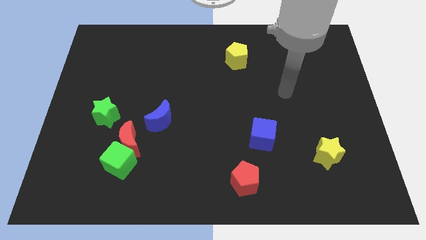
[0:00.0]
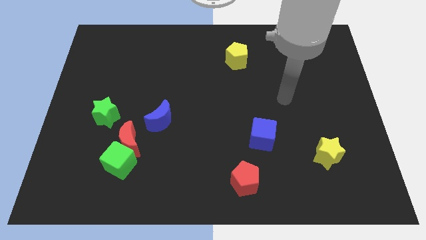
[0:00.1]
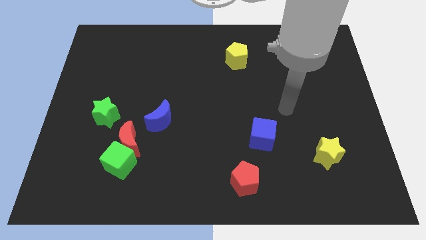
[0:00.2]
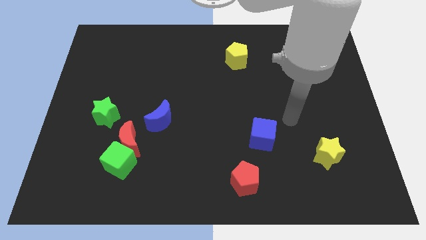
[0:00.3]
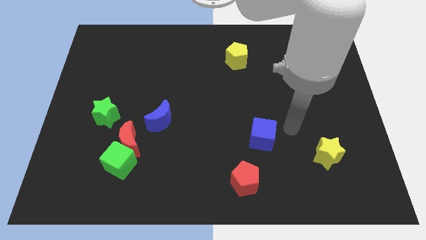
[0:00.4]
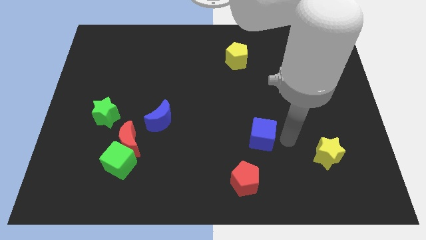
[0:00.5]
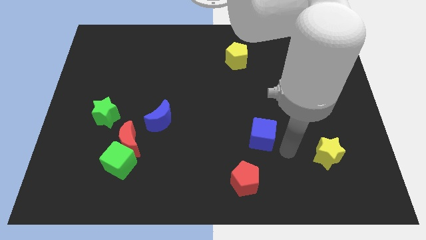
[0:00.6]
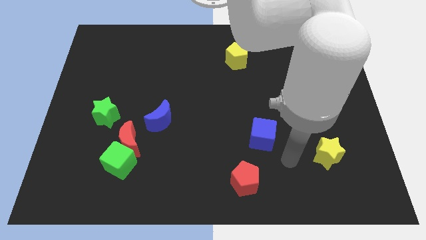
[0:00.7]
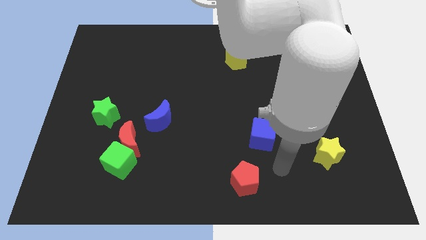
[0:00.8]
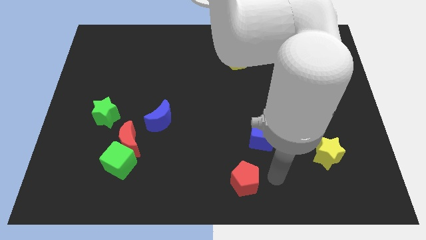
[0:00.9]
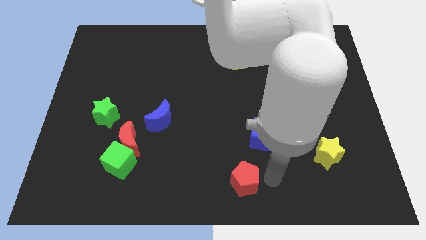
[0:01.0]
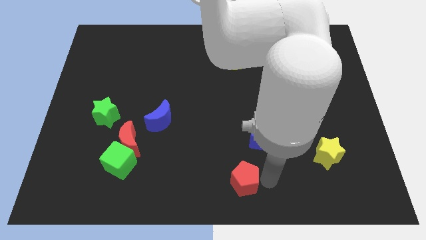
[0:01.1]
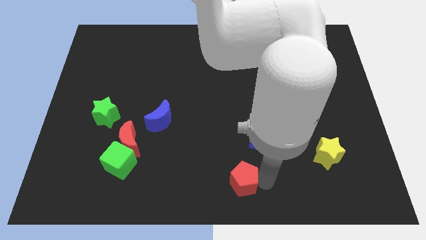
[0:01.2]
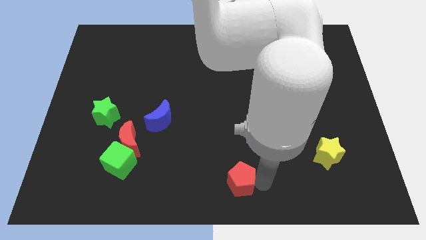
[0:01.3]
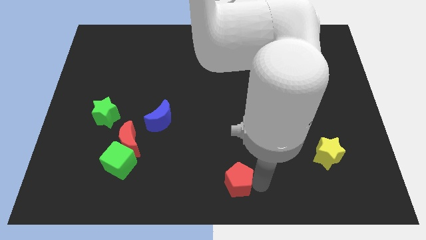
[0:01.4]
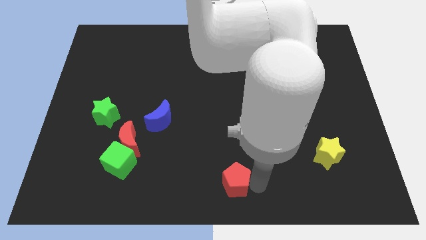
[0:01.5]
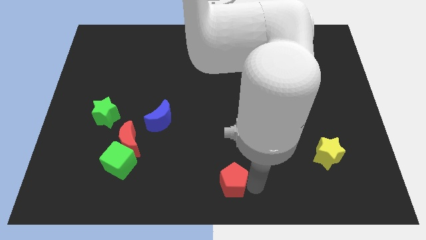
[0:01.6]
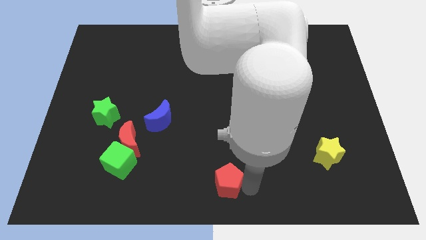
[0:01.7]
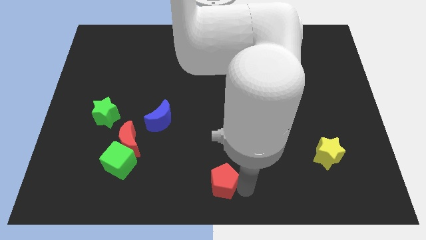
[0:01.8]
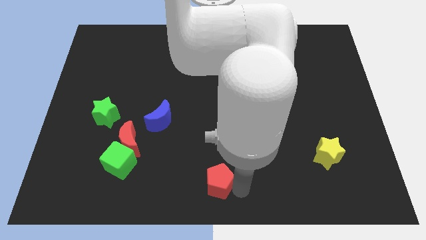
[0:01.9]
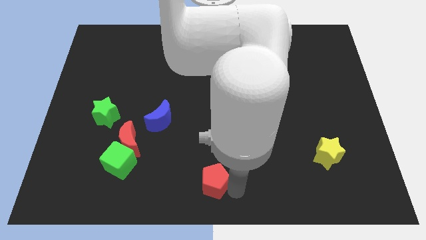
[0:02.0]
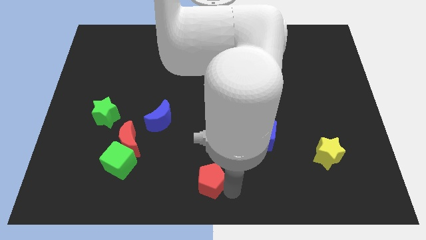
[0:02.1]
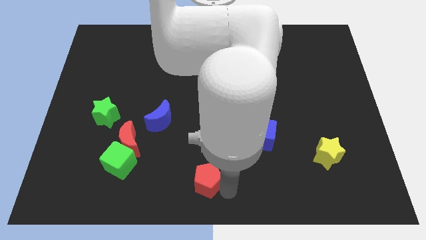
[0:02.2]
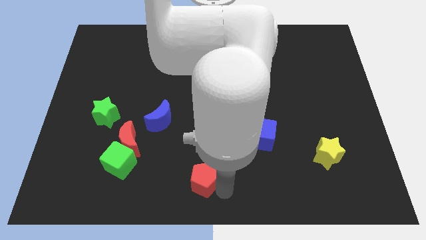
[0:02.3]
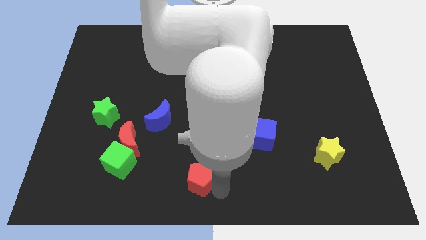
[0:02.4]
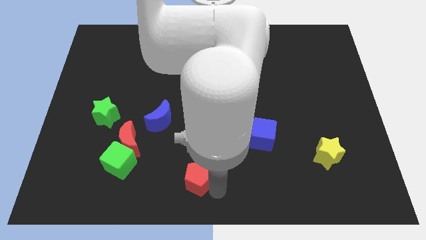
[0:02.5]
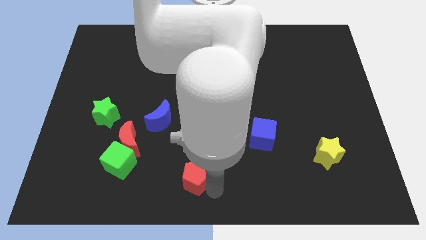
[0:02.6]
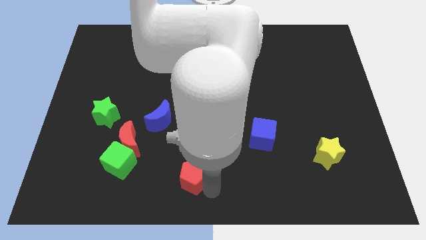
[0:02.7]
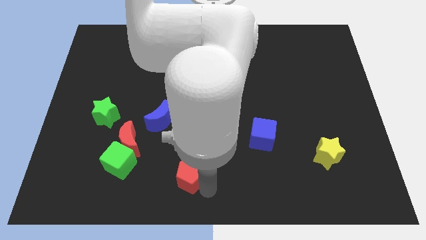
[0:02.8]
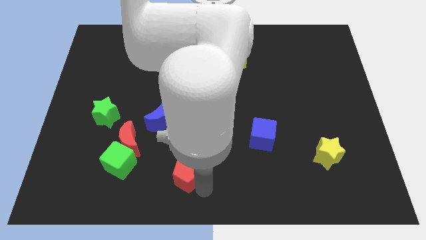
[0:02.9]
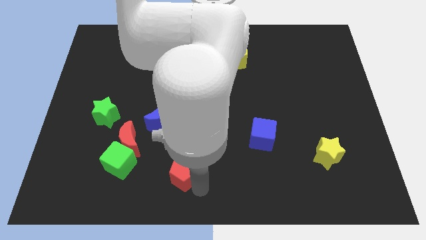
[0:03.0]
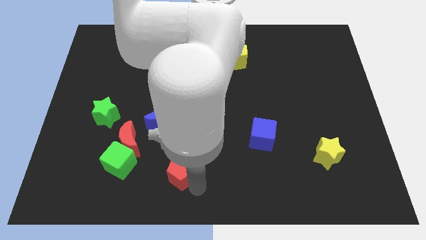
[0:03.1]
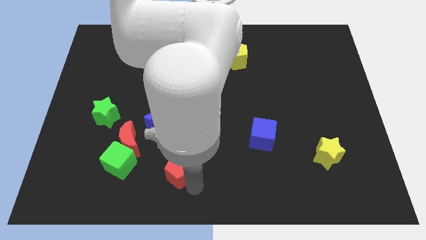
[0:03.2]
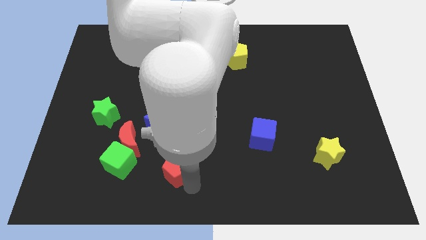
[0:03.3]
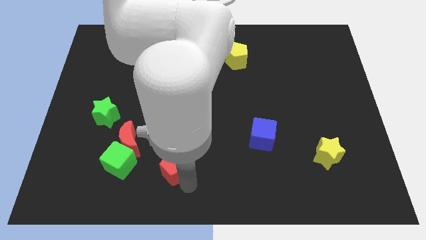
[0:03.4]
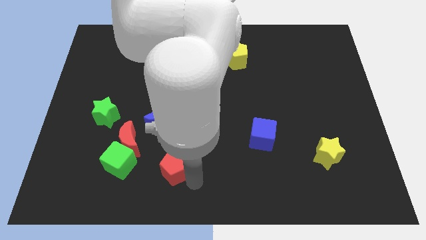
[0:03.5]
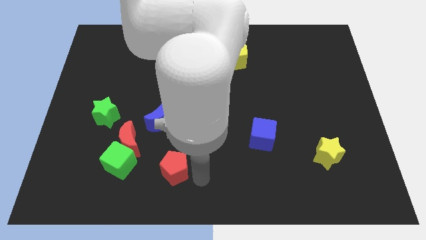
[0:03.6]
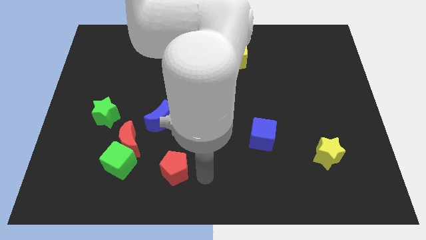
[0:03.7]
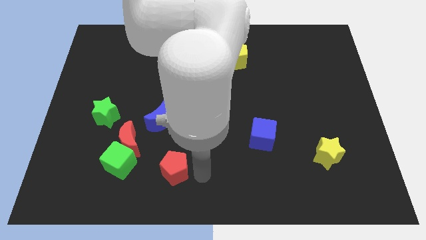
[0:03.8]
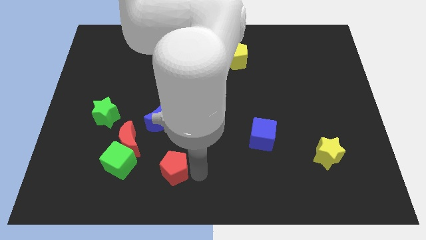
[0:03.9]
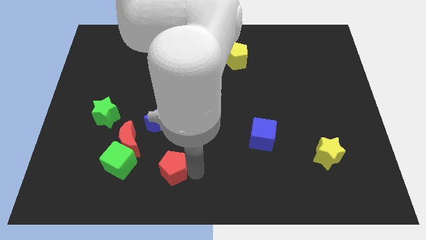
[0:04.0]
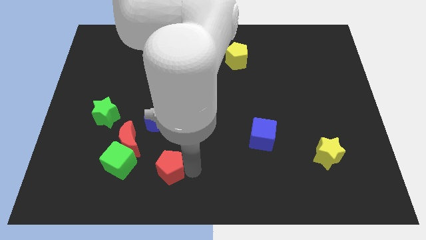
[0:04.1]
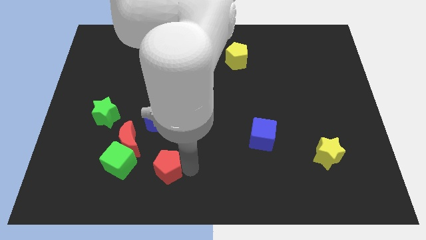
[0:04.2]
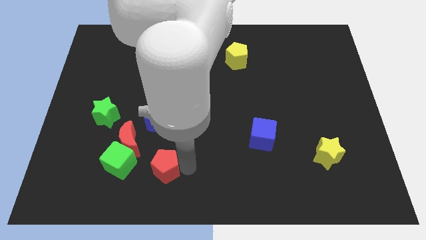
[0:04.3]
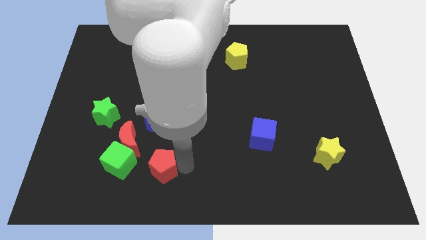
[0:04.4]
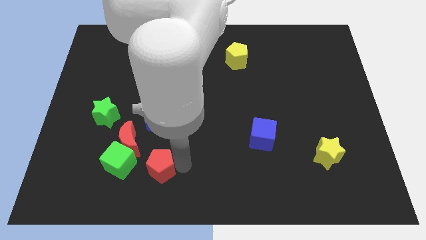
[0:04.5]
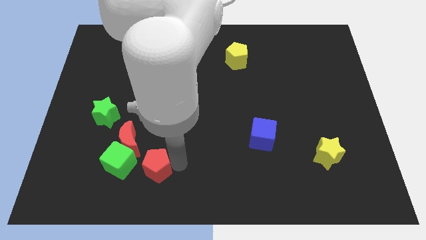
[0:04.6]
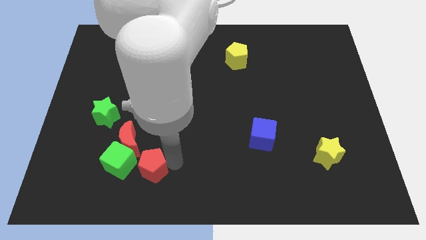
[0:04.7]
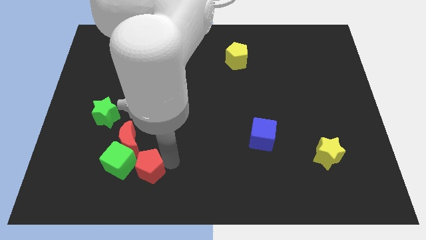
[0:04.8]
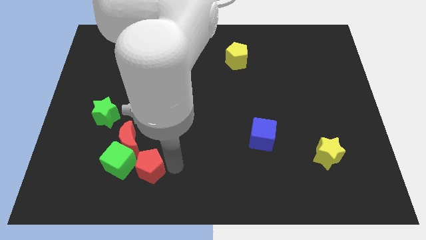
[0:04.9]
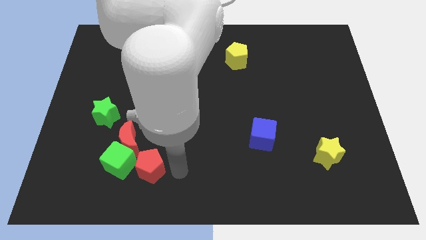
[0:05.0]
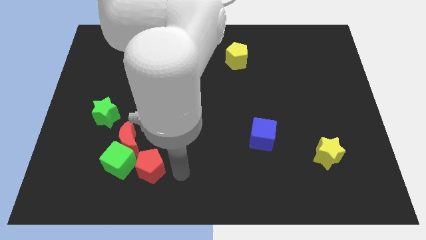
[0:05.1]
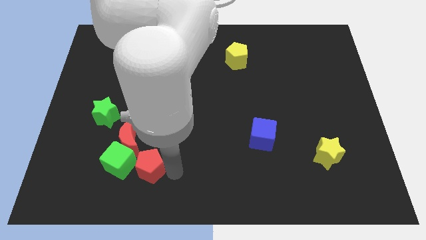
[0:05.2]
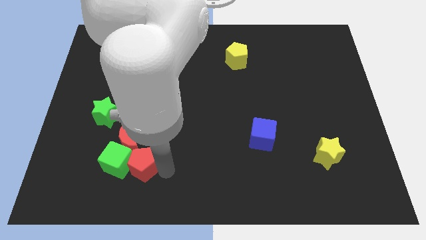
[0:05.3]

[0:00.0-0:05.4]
slide the red pentagon close to the green cube

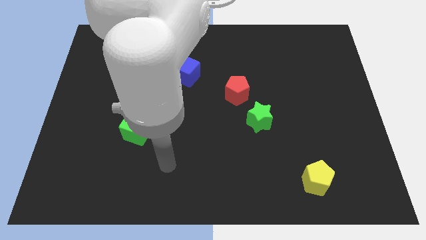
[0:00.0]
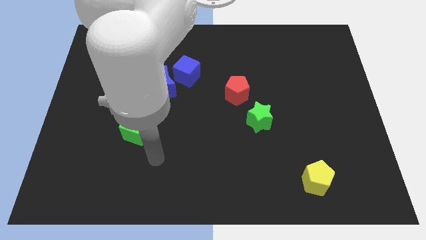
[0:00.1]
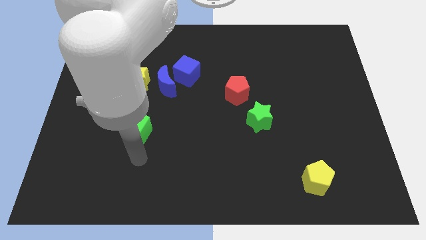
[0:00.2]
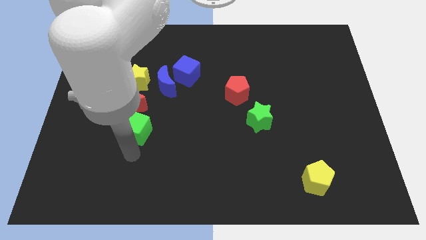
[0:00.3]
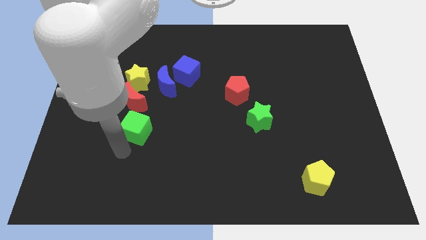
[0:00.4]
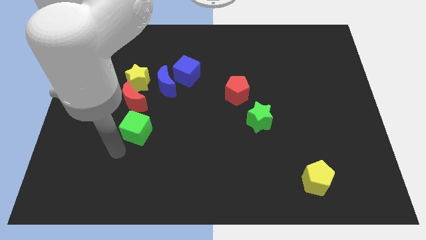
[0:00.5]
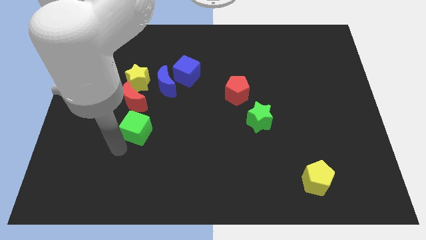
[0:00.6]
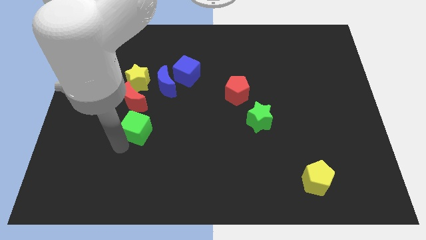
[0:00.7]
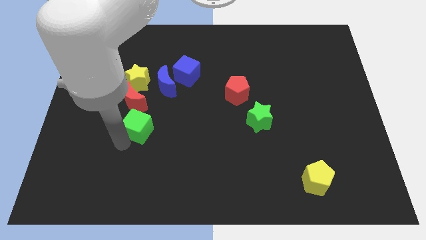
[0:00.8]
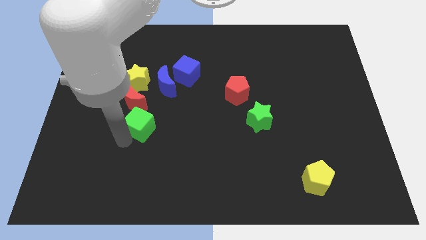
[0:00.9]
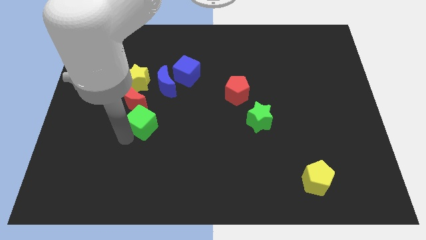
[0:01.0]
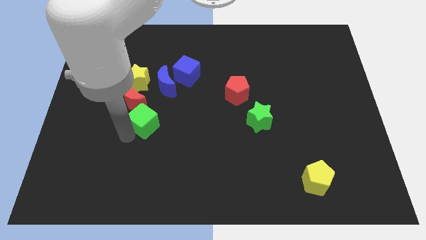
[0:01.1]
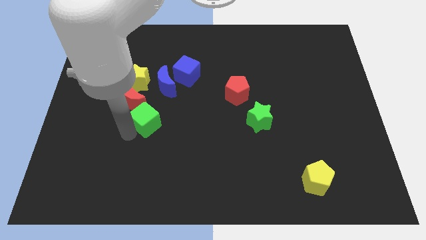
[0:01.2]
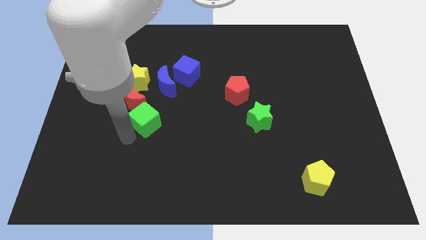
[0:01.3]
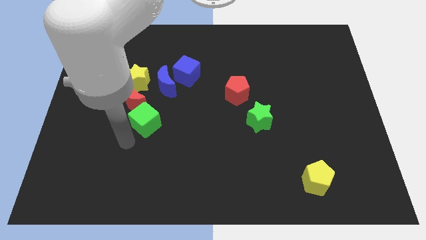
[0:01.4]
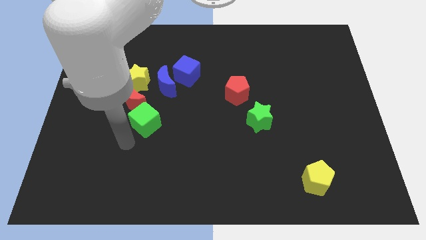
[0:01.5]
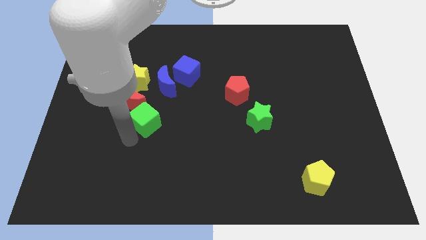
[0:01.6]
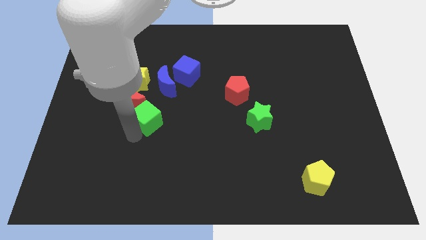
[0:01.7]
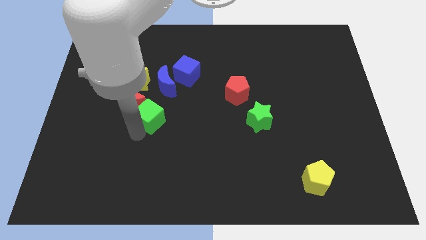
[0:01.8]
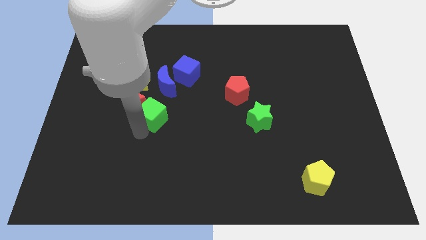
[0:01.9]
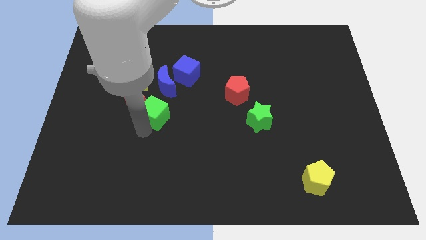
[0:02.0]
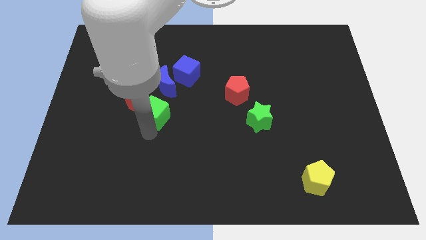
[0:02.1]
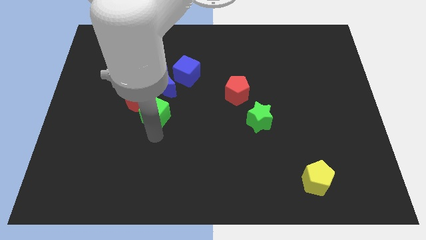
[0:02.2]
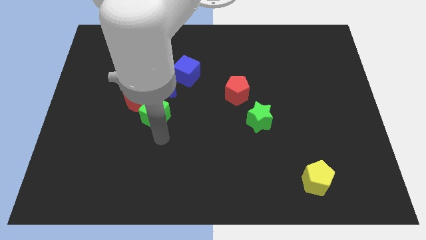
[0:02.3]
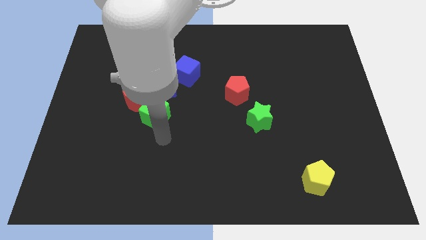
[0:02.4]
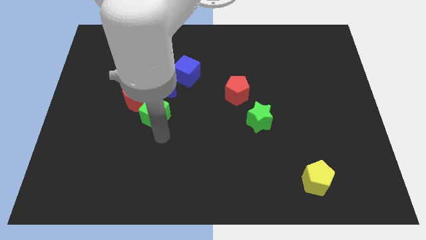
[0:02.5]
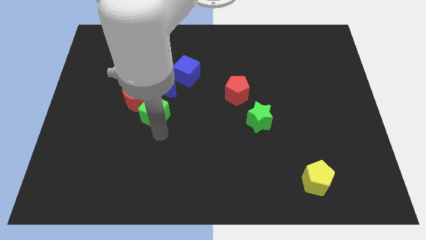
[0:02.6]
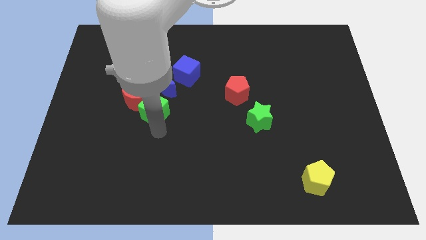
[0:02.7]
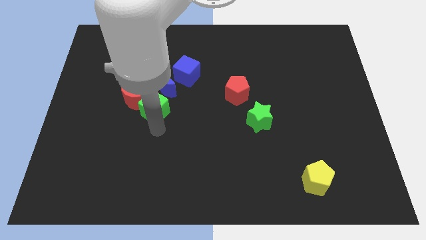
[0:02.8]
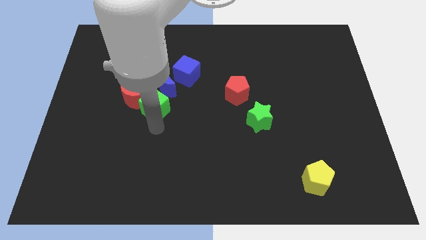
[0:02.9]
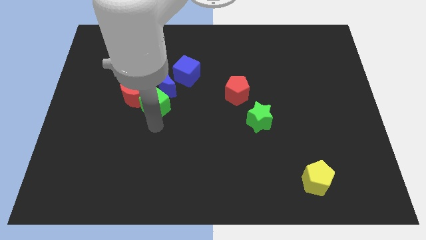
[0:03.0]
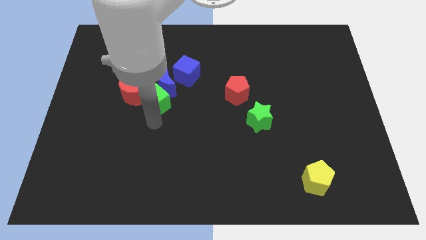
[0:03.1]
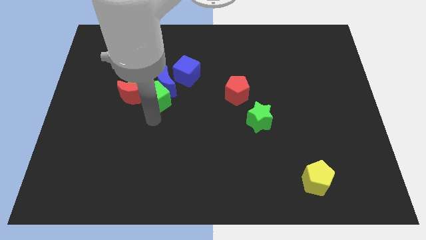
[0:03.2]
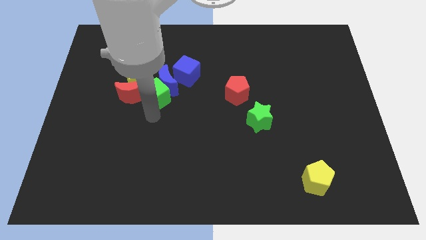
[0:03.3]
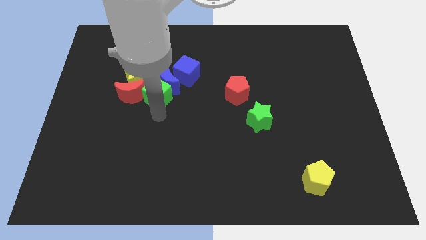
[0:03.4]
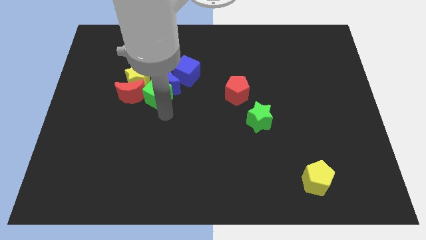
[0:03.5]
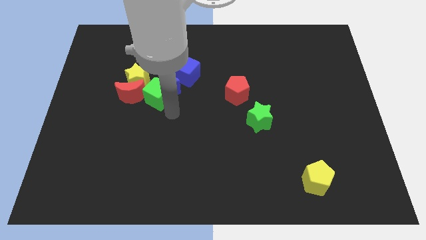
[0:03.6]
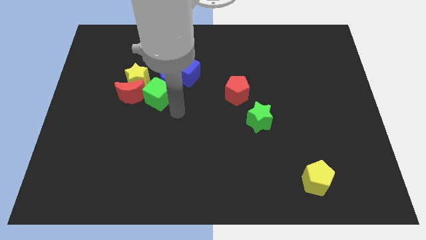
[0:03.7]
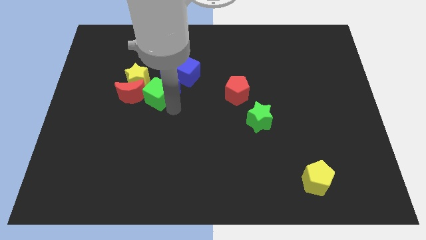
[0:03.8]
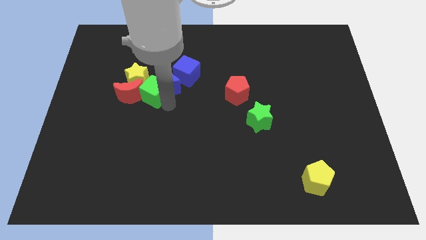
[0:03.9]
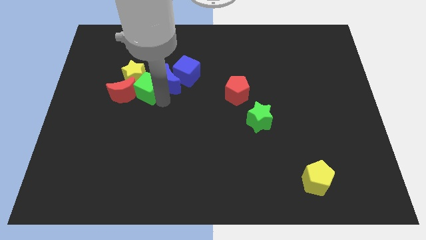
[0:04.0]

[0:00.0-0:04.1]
push the green cube next to the yellow star
